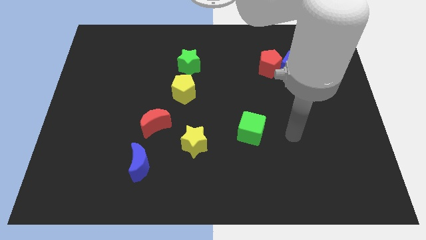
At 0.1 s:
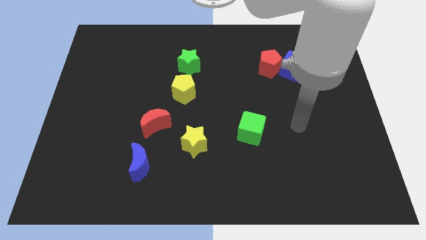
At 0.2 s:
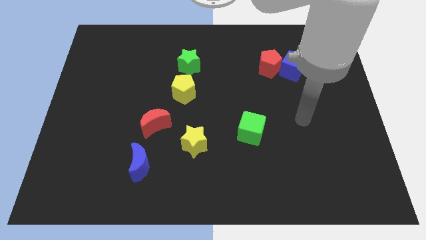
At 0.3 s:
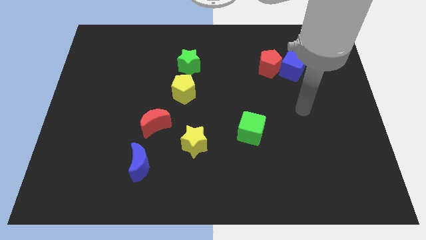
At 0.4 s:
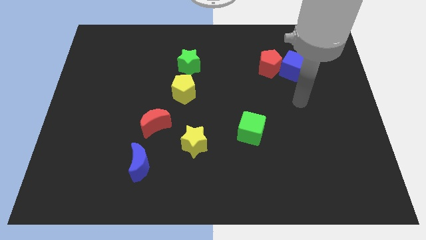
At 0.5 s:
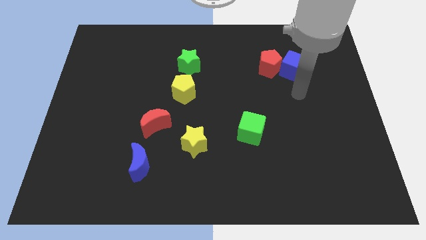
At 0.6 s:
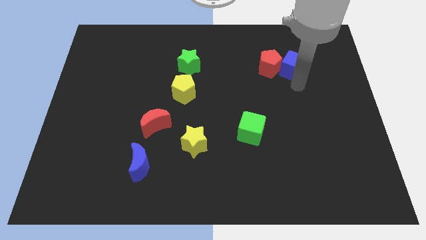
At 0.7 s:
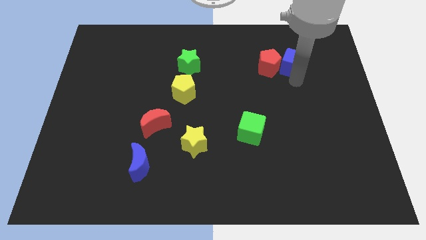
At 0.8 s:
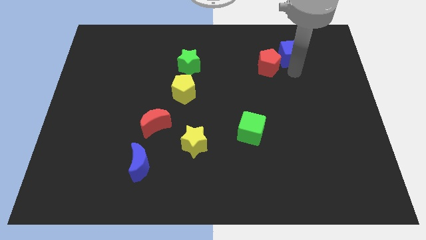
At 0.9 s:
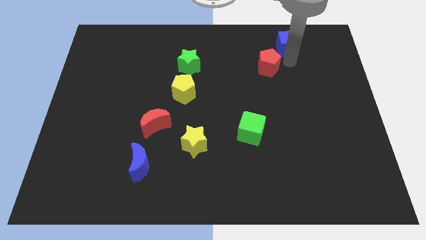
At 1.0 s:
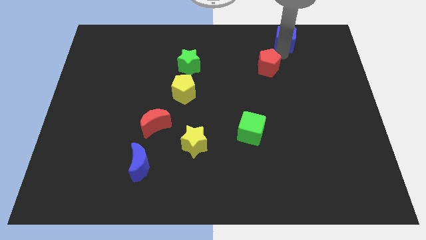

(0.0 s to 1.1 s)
pull the red pentagon apart from the blue cube

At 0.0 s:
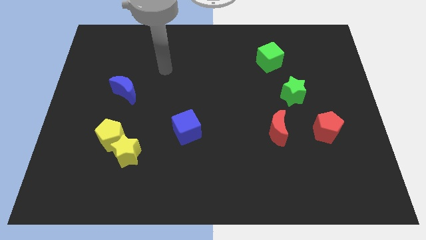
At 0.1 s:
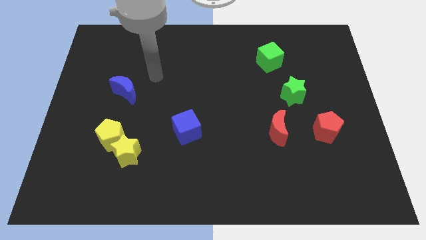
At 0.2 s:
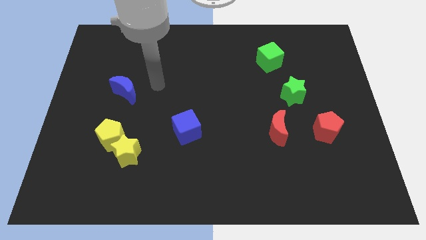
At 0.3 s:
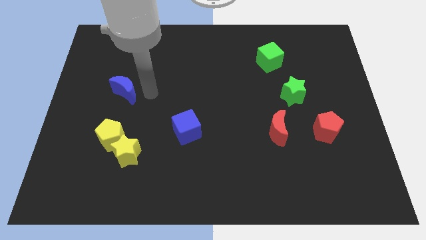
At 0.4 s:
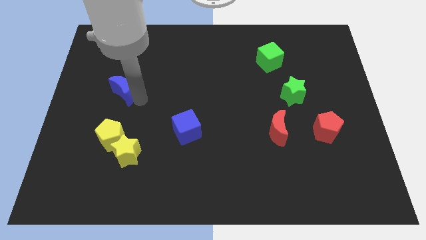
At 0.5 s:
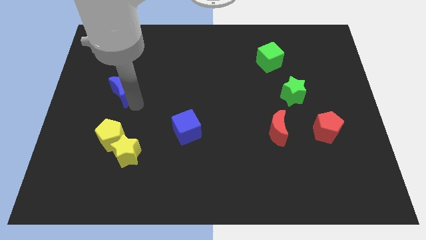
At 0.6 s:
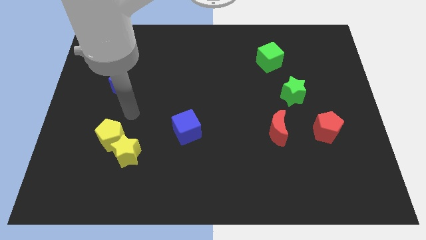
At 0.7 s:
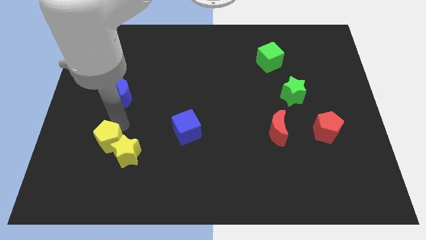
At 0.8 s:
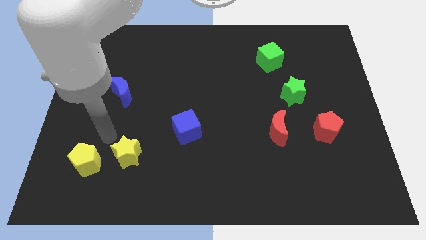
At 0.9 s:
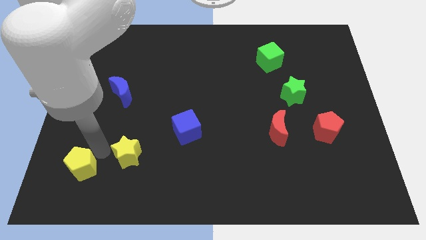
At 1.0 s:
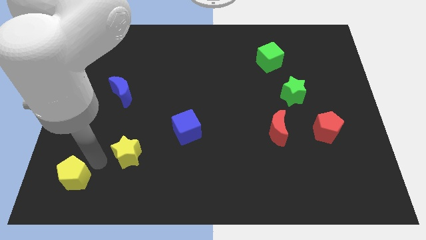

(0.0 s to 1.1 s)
move the yellow star away from the yellow pentagon

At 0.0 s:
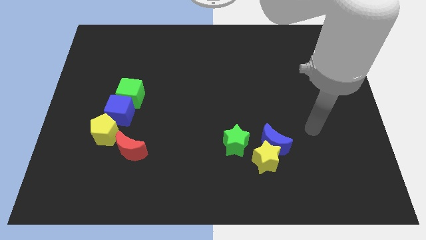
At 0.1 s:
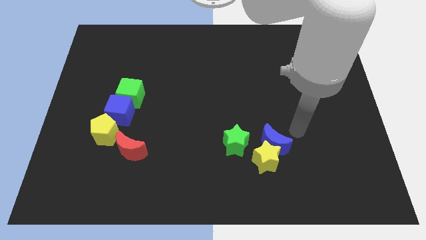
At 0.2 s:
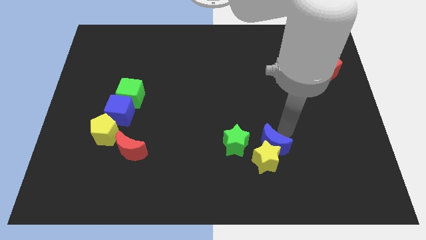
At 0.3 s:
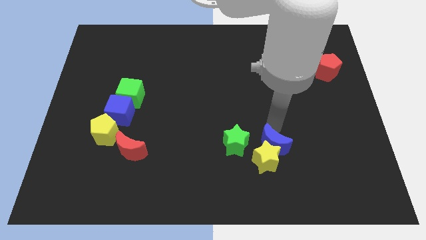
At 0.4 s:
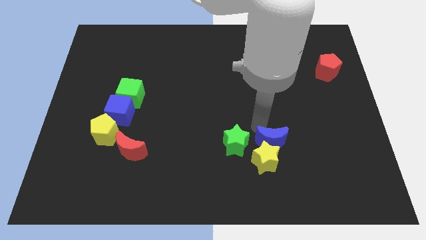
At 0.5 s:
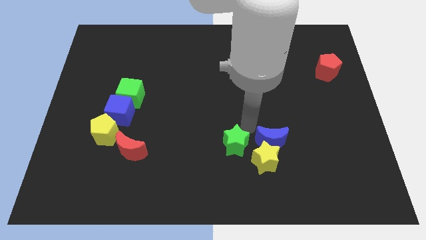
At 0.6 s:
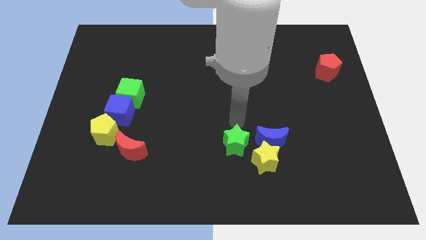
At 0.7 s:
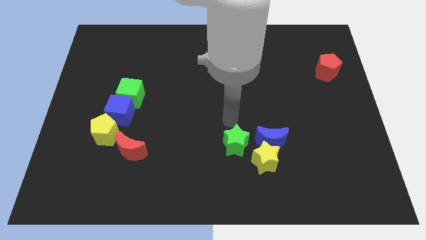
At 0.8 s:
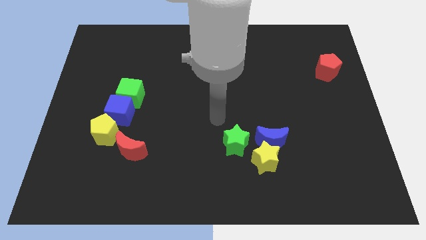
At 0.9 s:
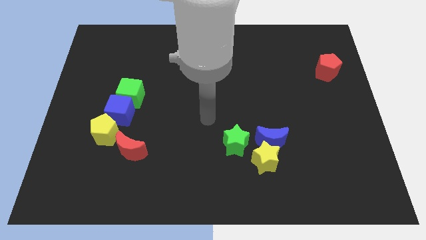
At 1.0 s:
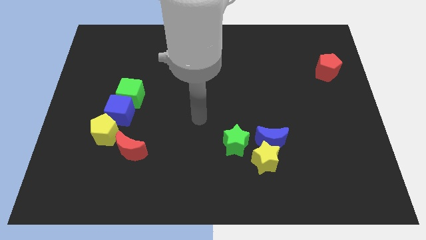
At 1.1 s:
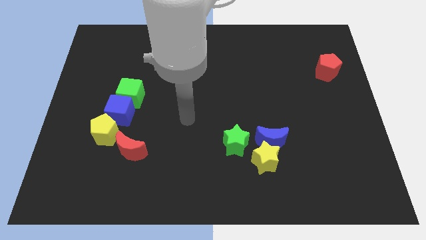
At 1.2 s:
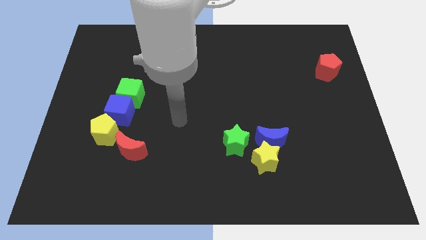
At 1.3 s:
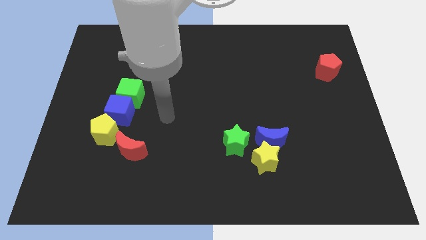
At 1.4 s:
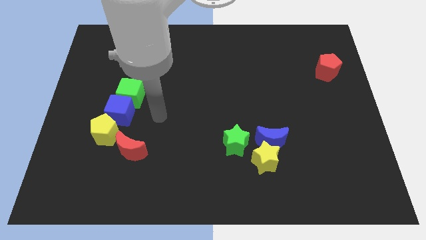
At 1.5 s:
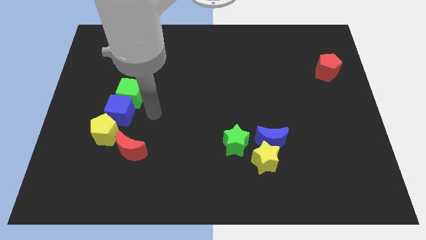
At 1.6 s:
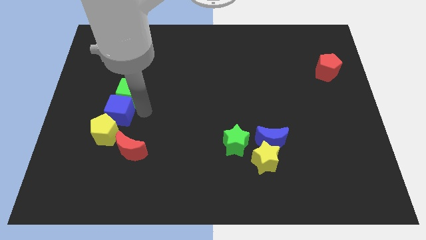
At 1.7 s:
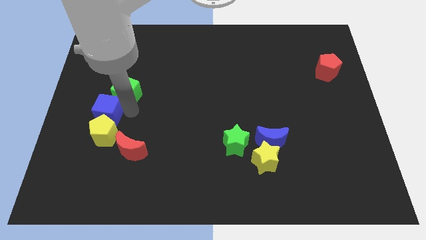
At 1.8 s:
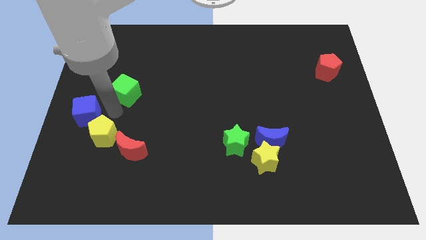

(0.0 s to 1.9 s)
separate the green cube from the blue cube

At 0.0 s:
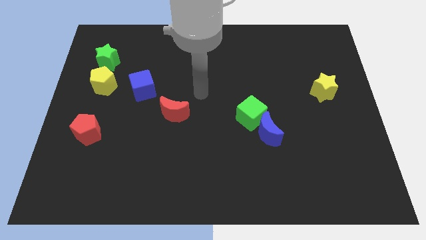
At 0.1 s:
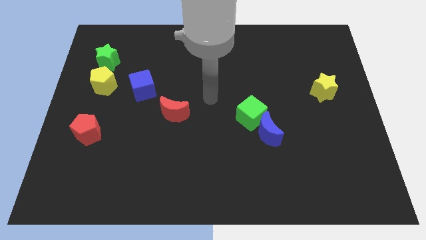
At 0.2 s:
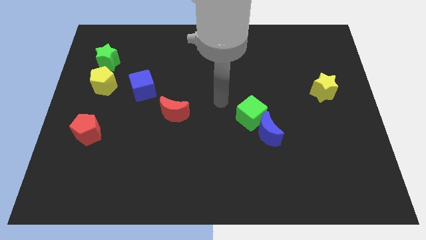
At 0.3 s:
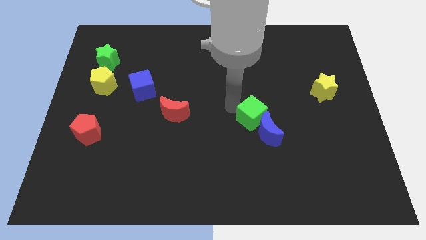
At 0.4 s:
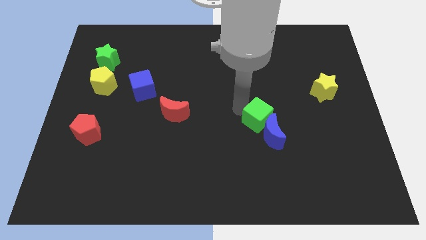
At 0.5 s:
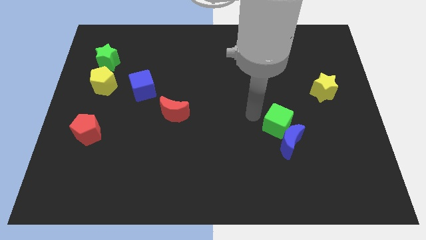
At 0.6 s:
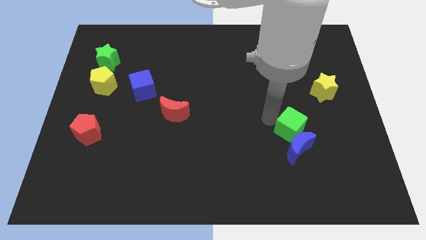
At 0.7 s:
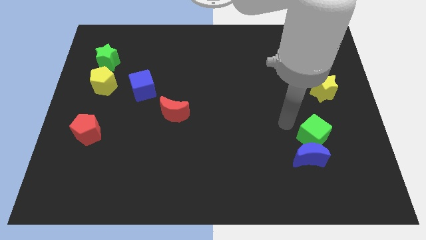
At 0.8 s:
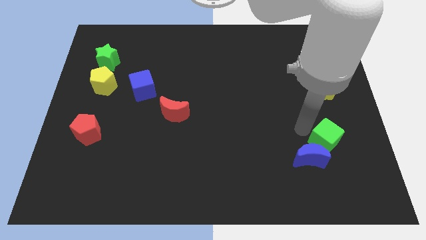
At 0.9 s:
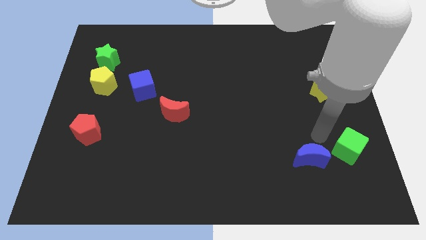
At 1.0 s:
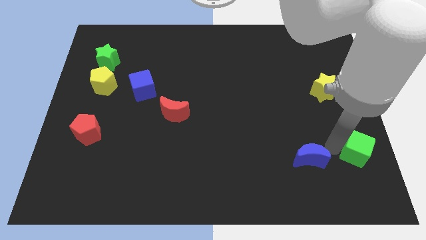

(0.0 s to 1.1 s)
pull the blue moon apart from the green cube

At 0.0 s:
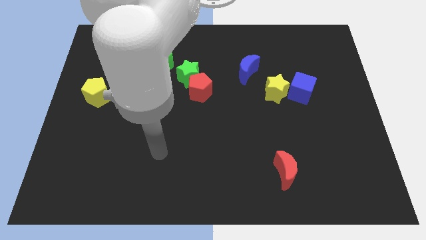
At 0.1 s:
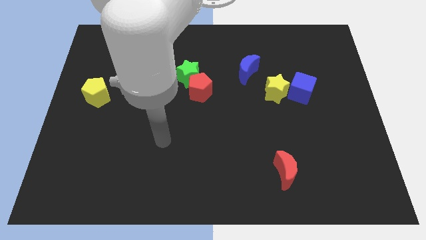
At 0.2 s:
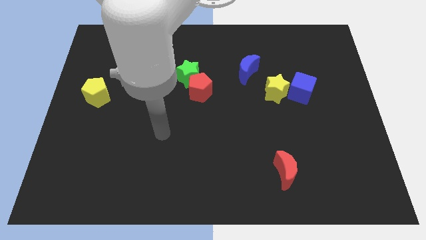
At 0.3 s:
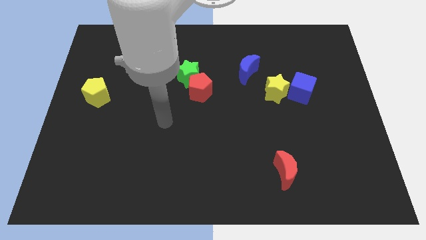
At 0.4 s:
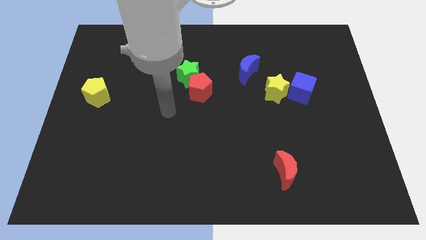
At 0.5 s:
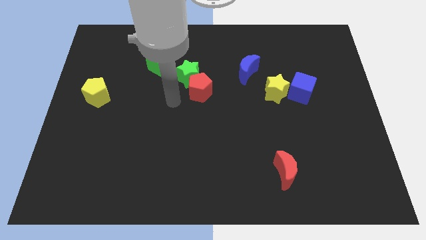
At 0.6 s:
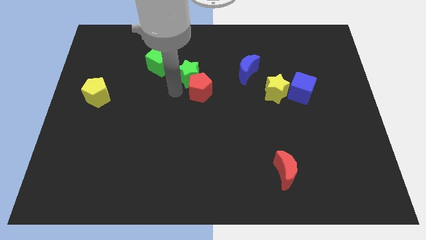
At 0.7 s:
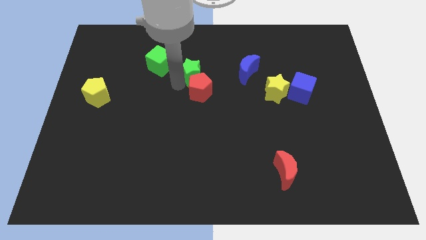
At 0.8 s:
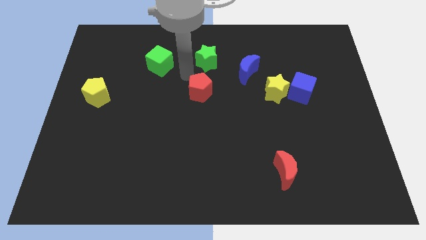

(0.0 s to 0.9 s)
separate the red pentagon from the green star

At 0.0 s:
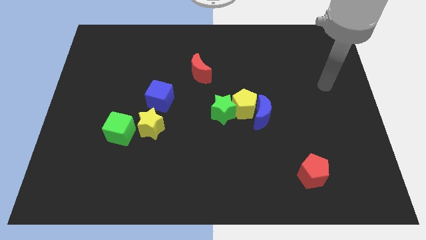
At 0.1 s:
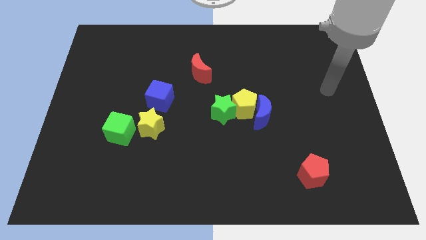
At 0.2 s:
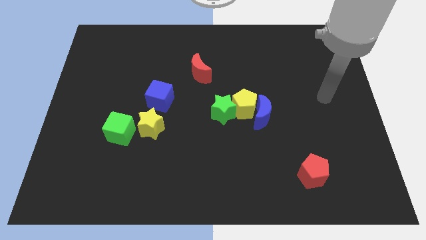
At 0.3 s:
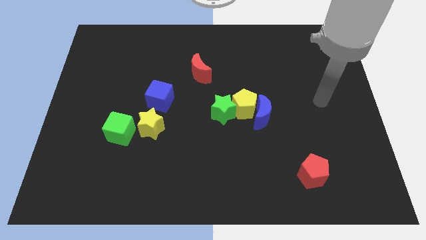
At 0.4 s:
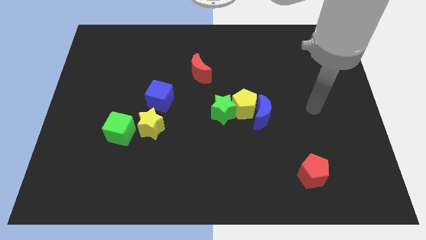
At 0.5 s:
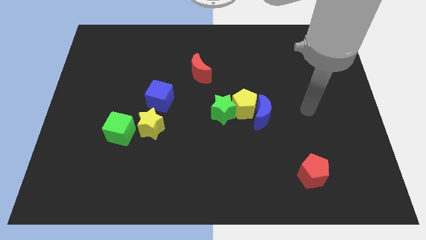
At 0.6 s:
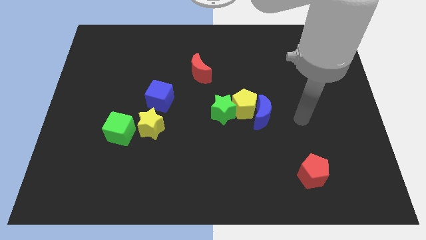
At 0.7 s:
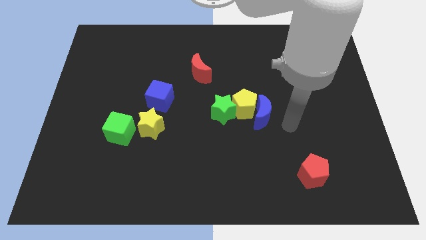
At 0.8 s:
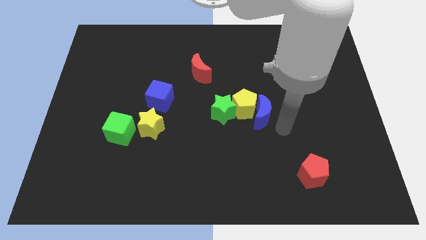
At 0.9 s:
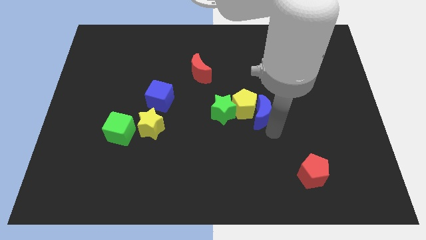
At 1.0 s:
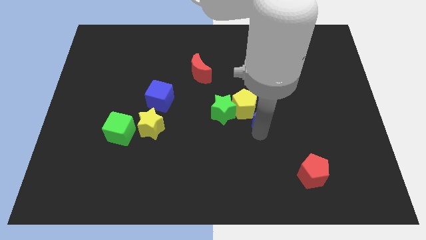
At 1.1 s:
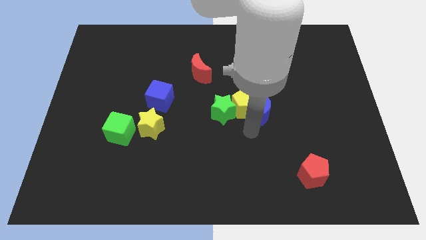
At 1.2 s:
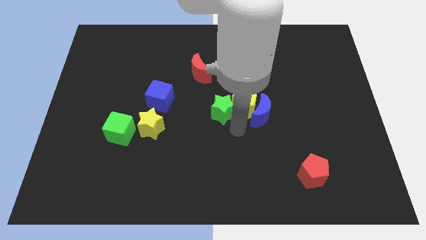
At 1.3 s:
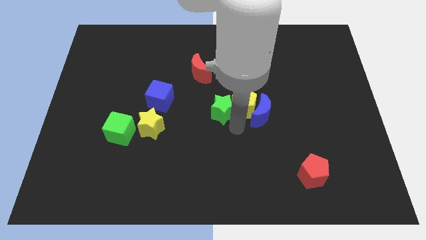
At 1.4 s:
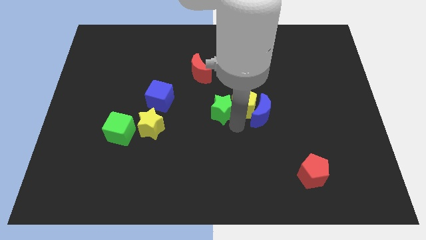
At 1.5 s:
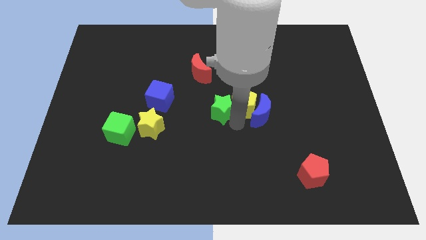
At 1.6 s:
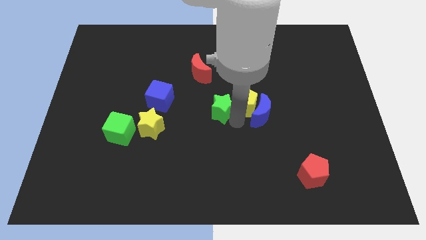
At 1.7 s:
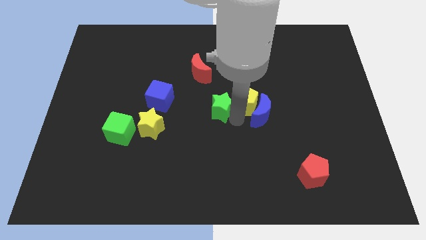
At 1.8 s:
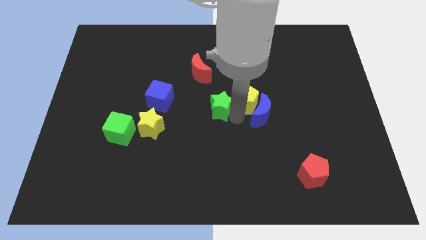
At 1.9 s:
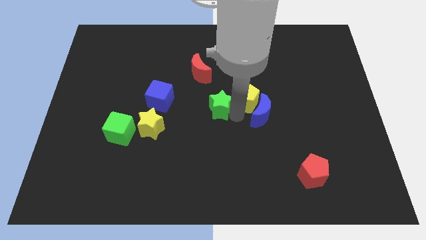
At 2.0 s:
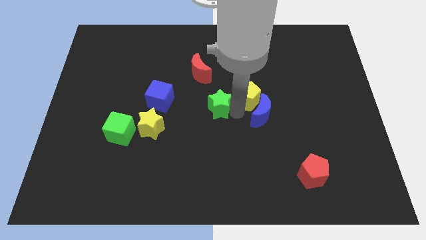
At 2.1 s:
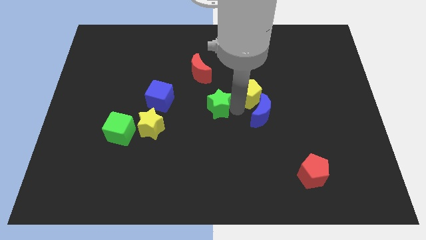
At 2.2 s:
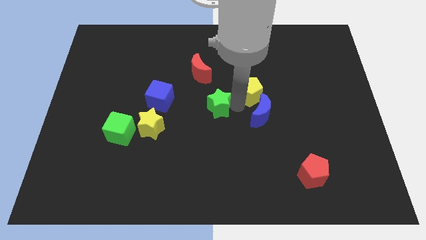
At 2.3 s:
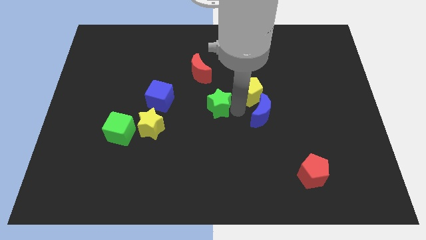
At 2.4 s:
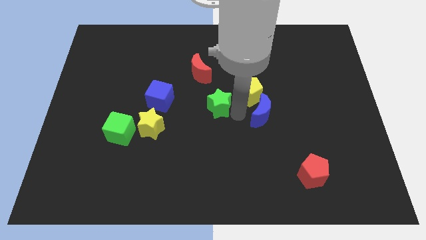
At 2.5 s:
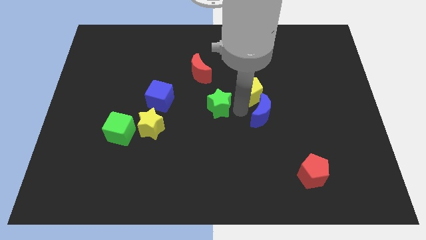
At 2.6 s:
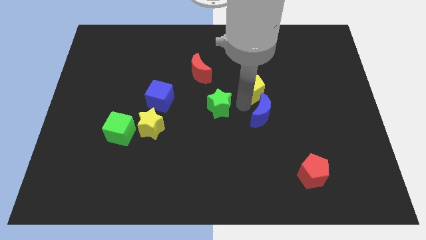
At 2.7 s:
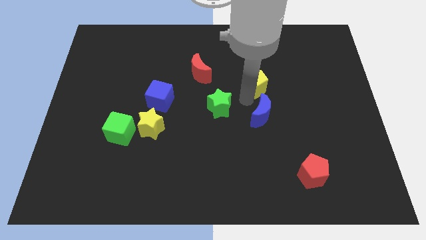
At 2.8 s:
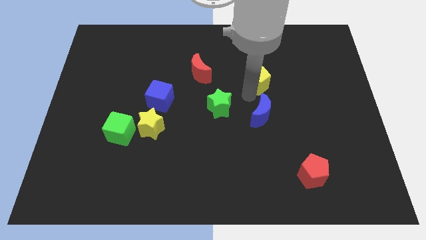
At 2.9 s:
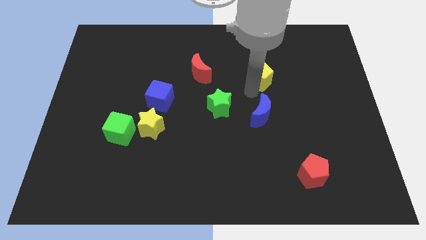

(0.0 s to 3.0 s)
move the yellow pentagon away from the blue moon and green star

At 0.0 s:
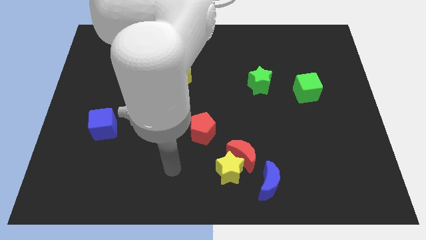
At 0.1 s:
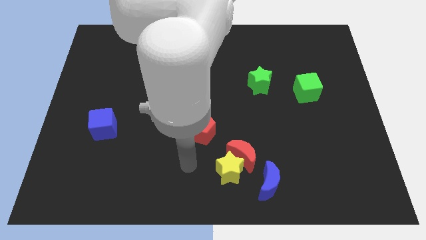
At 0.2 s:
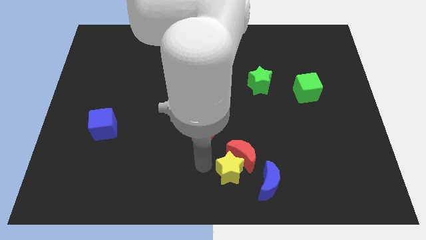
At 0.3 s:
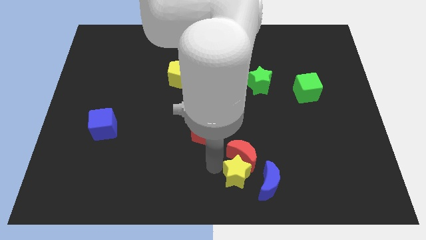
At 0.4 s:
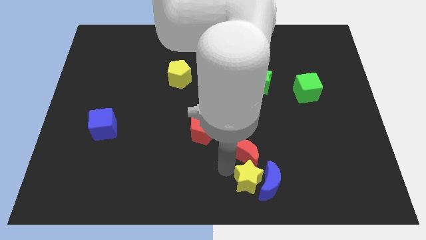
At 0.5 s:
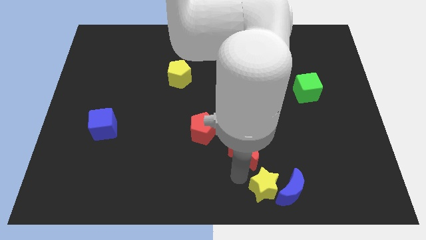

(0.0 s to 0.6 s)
separate the red moon from the yellow star and blue moon
